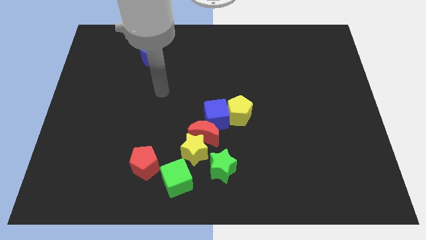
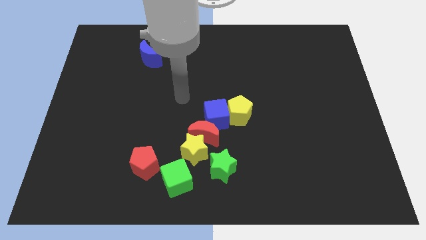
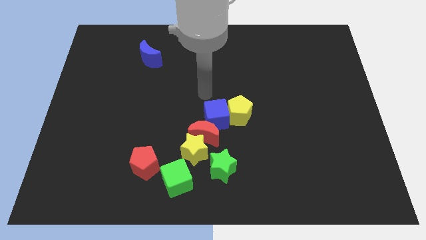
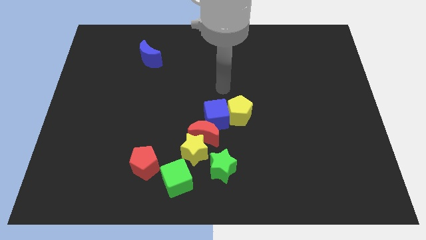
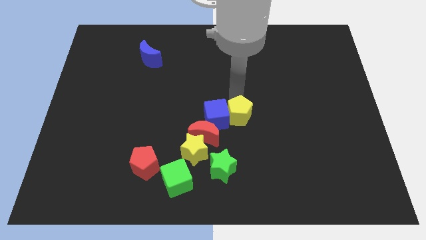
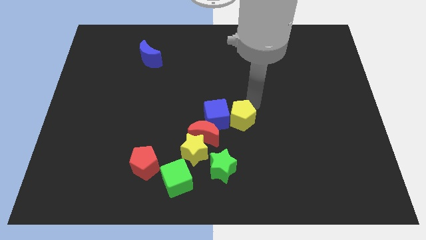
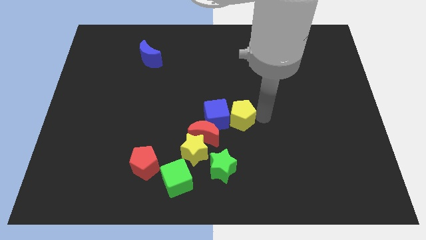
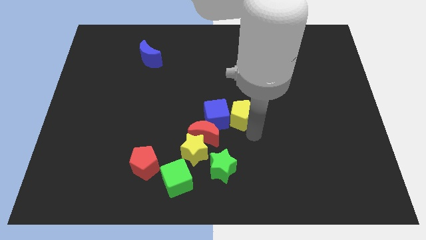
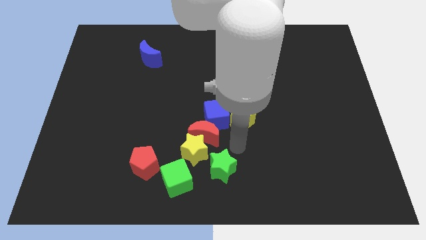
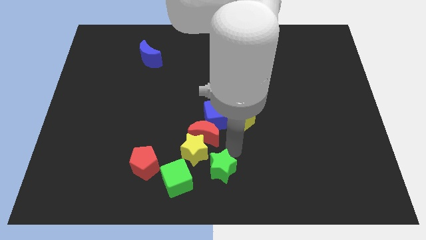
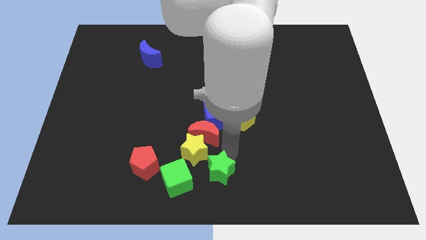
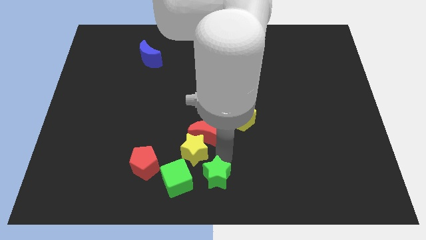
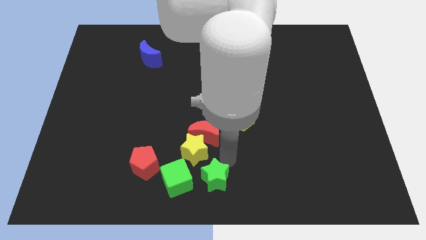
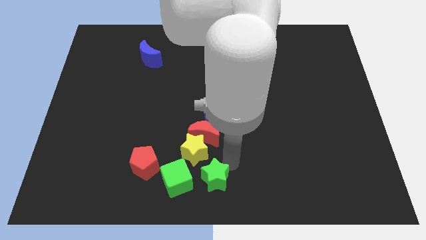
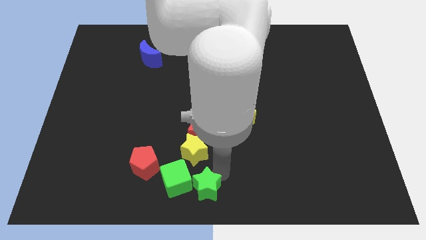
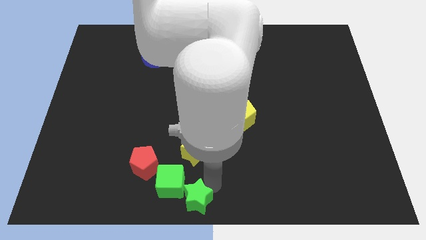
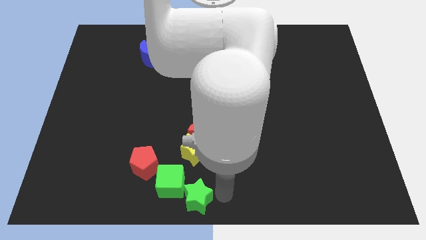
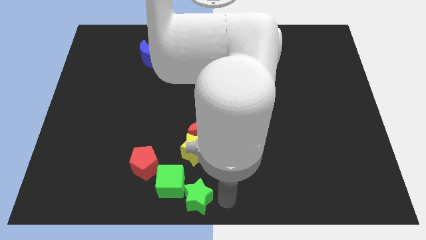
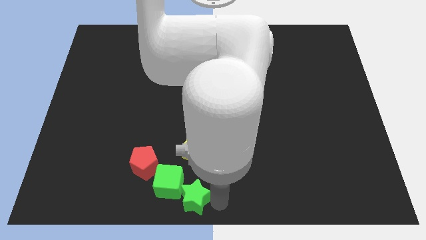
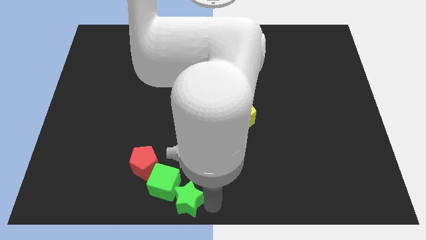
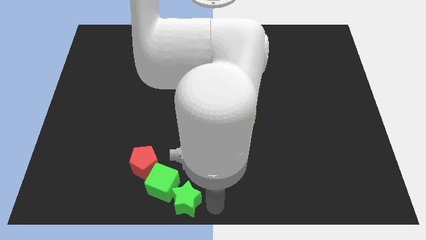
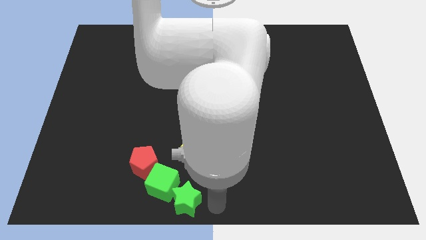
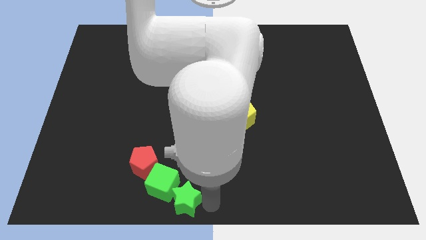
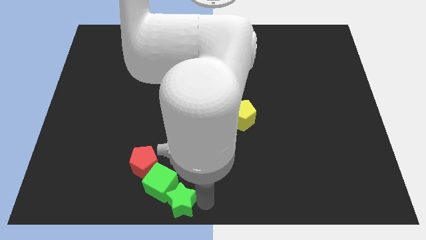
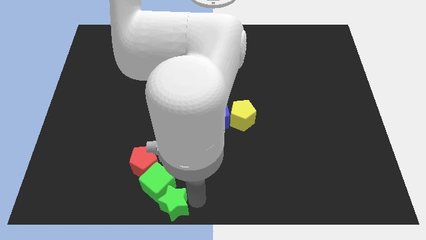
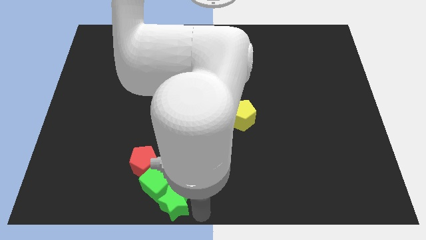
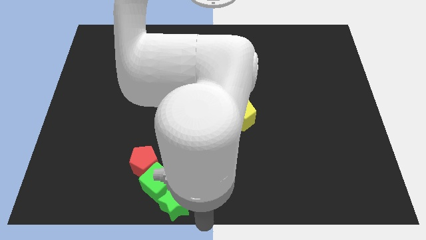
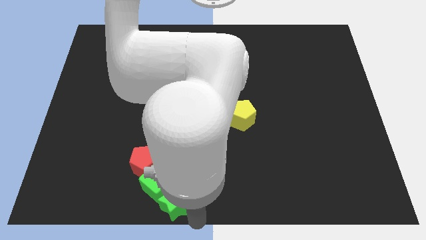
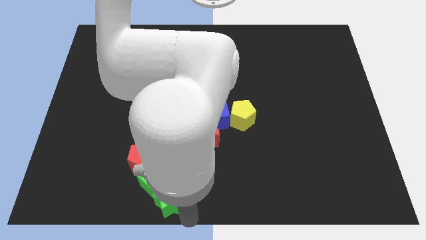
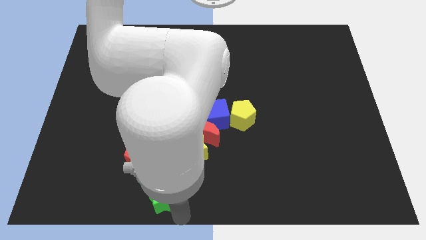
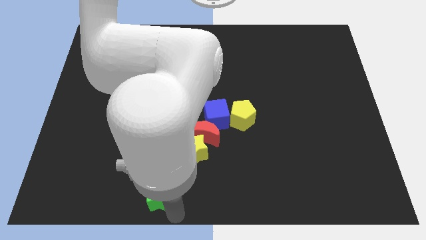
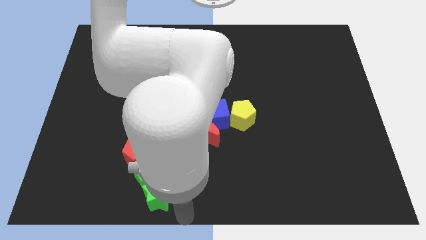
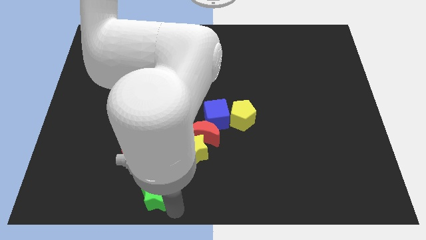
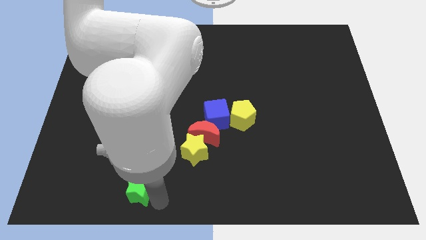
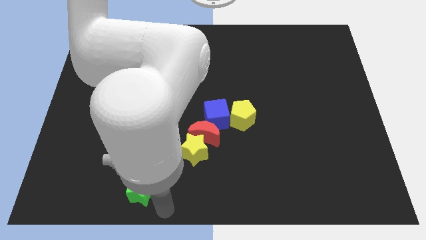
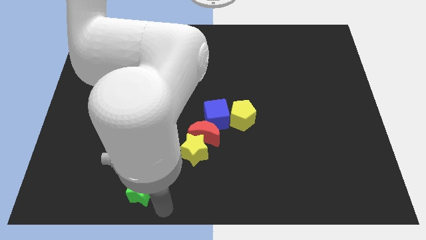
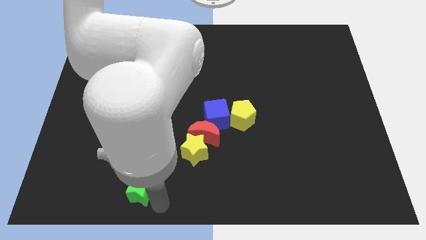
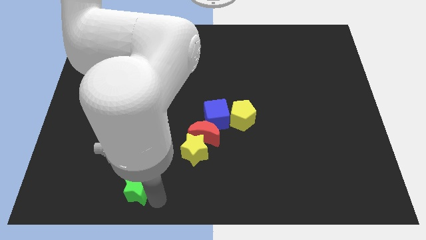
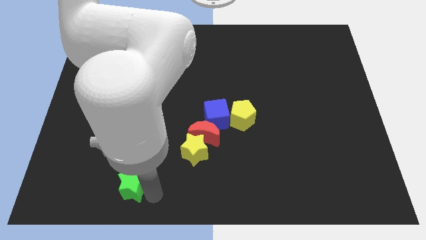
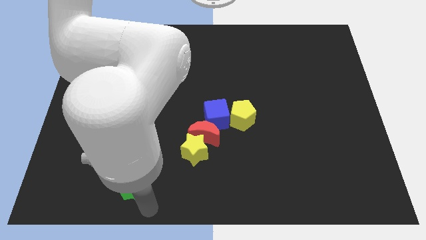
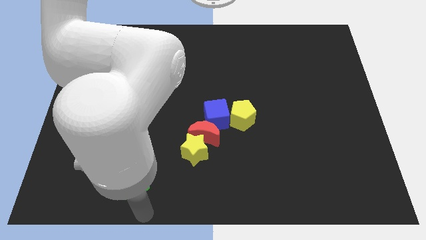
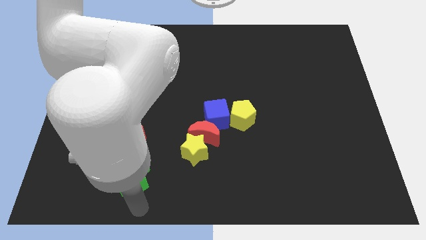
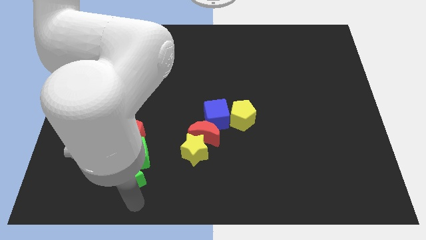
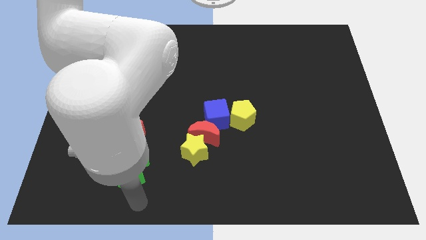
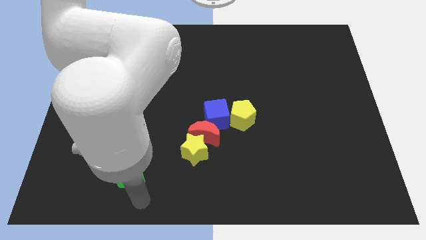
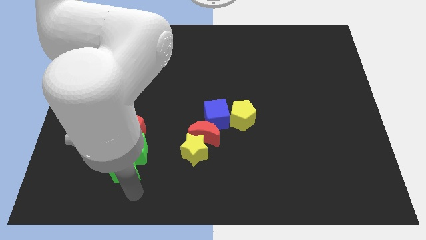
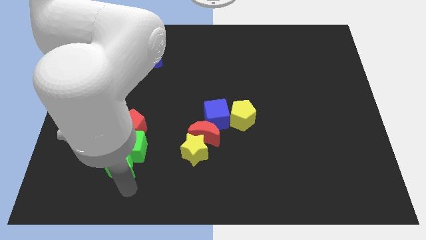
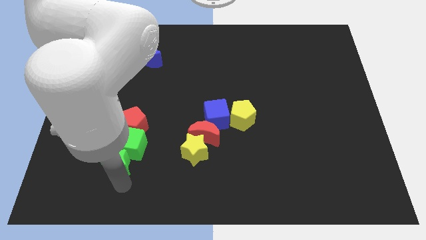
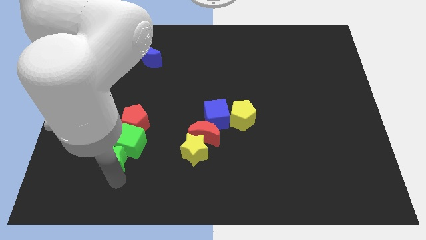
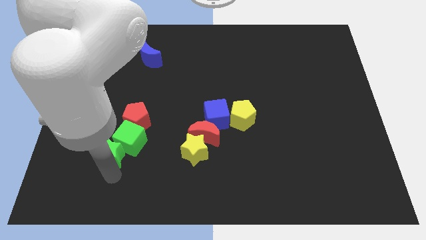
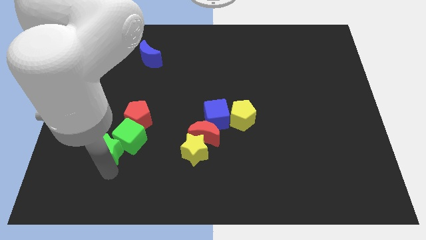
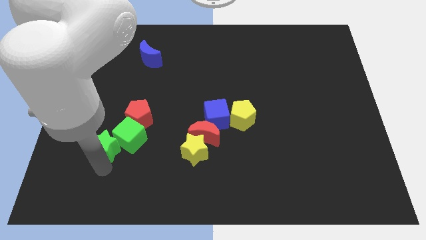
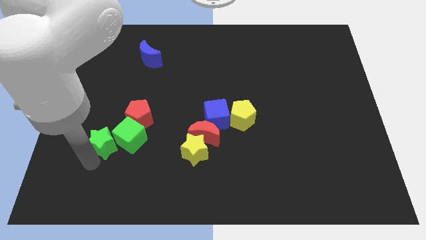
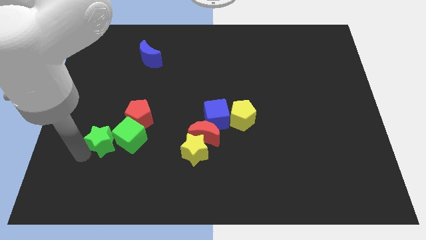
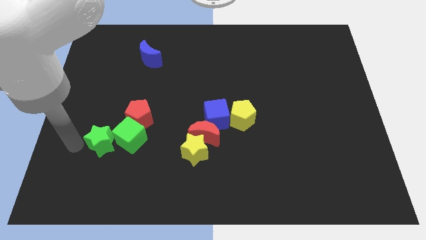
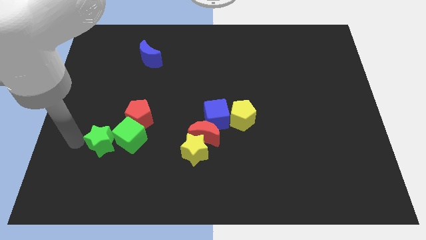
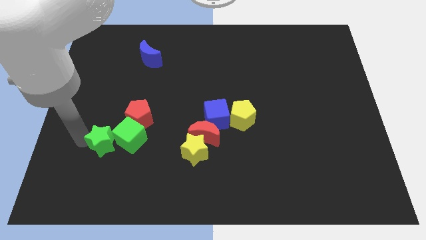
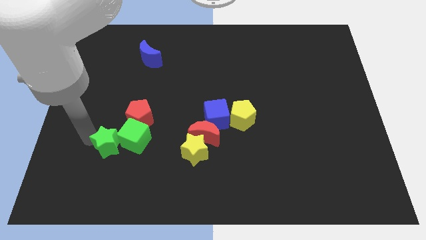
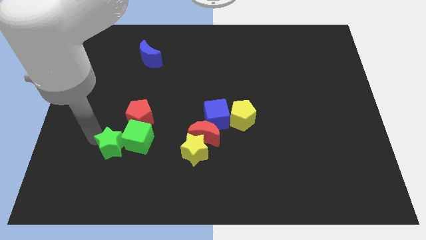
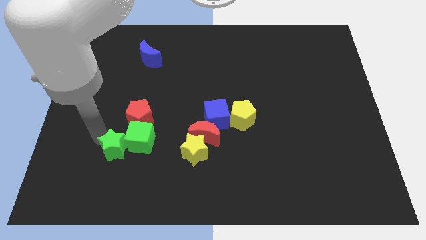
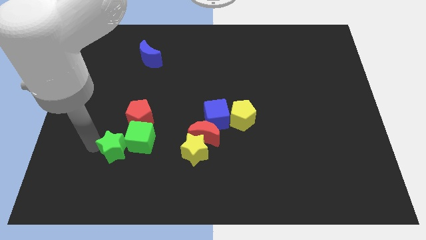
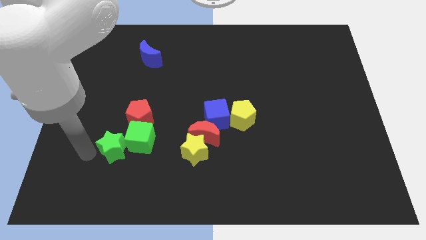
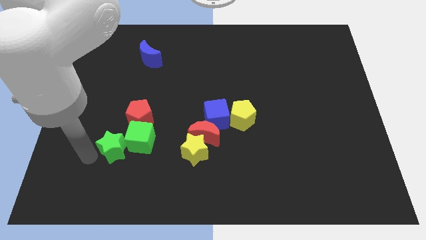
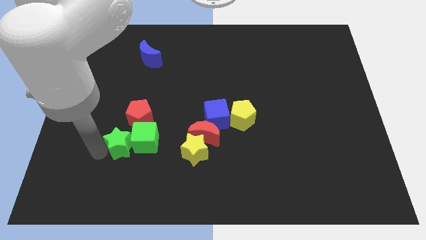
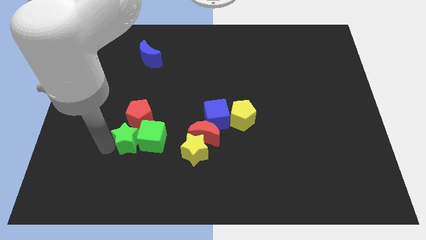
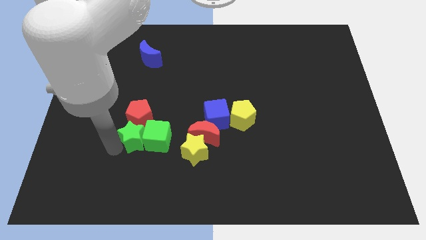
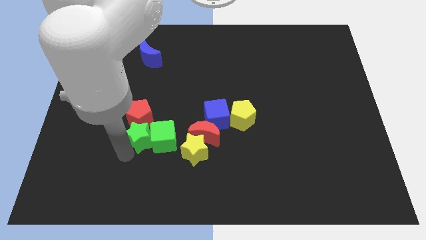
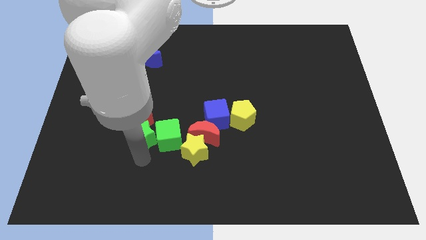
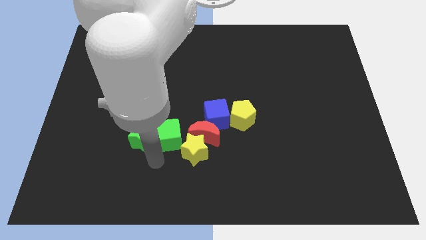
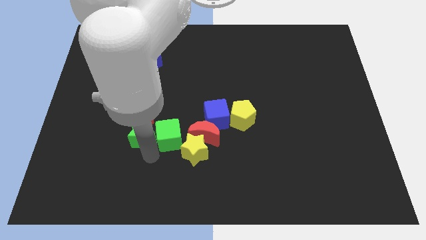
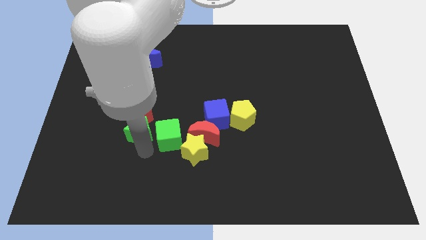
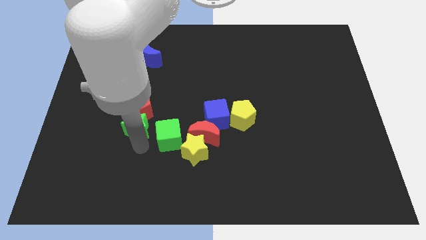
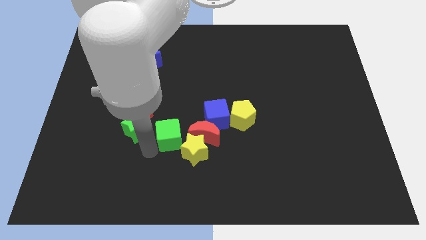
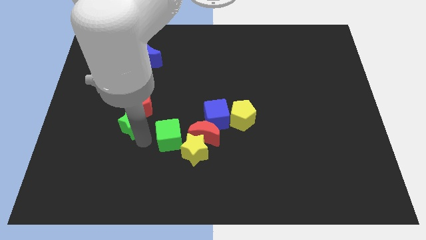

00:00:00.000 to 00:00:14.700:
move the green star up and to the left

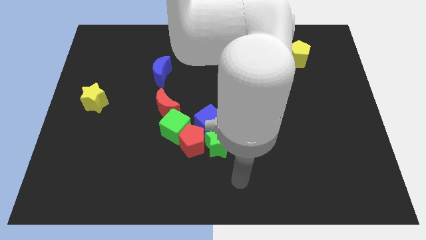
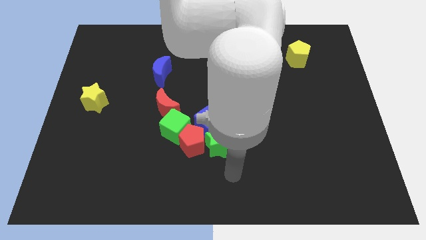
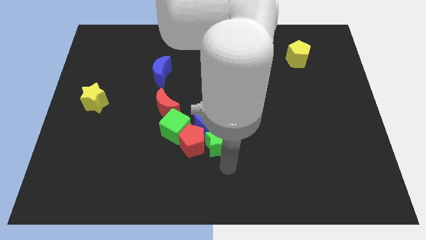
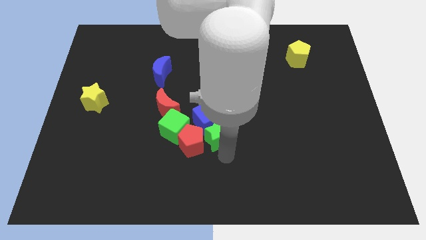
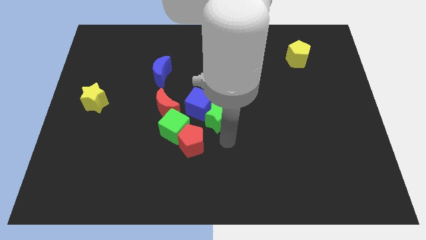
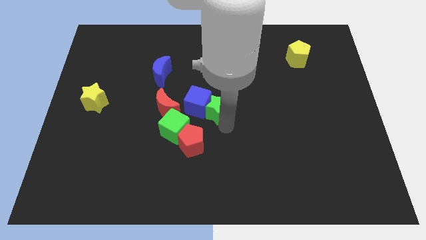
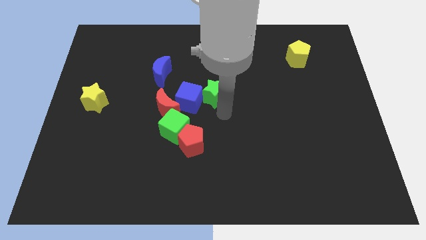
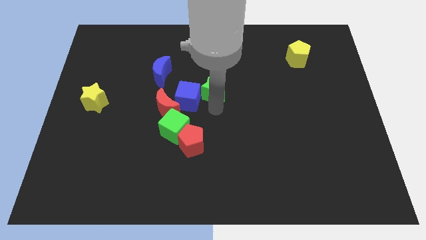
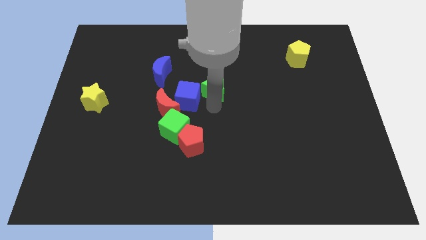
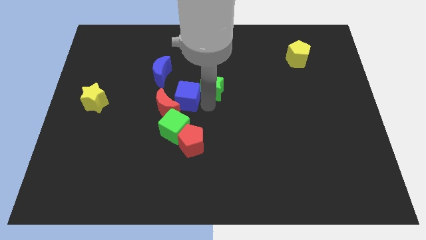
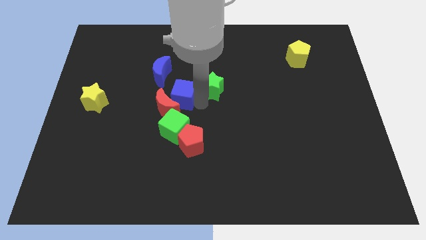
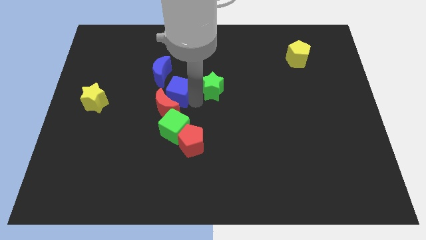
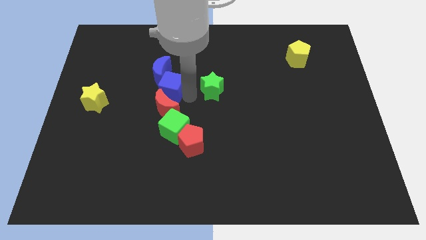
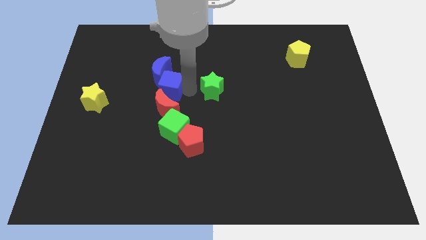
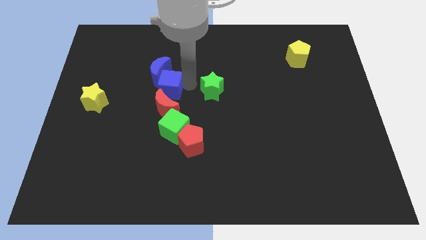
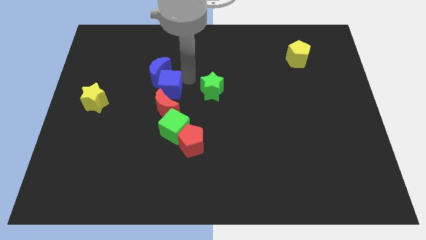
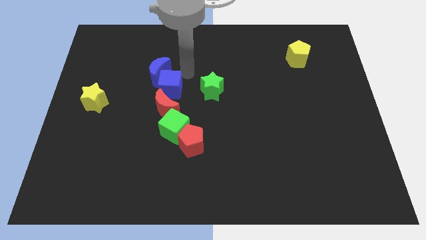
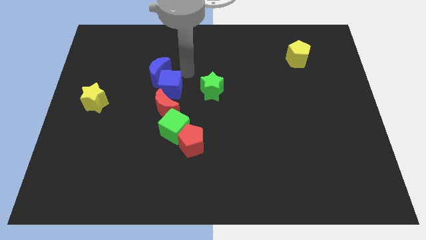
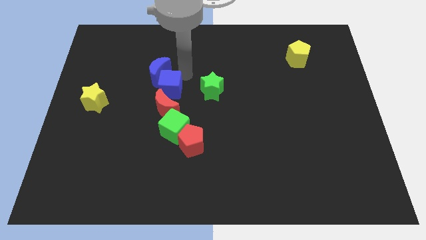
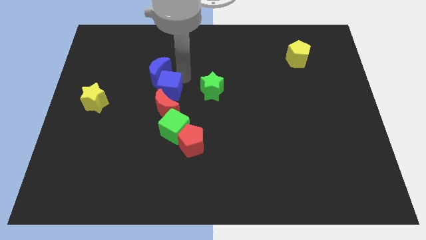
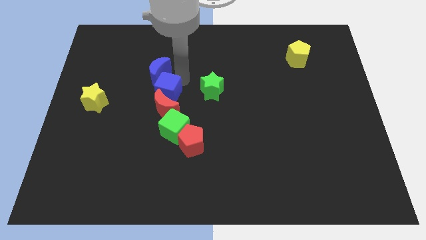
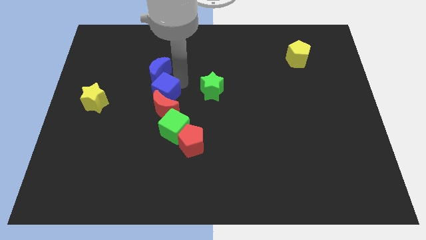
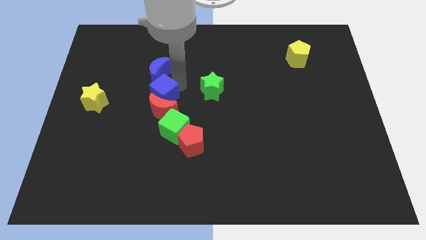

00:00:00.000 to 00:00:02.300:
slightly push the blue cube to the left
